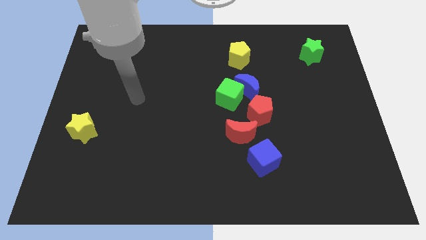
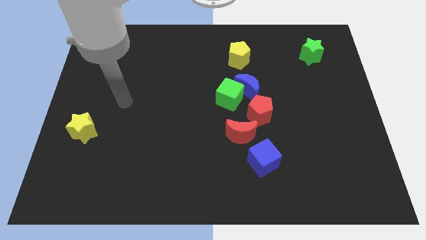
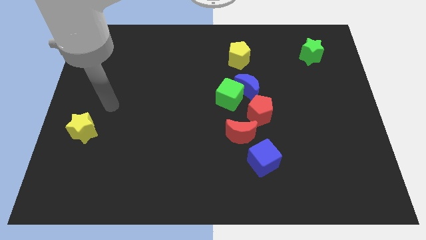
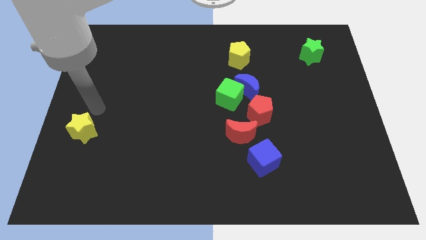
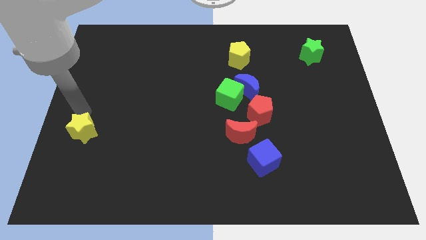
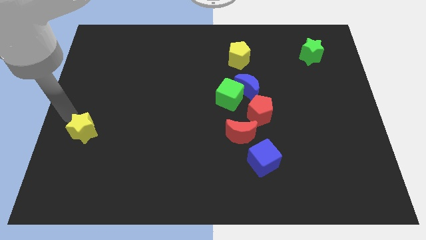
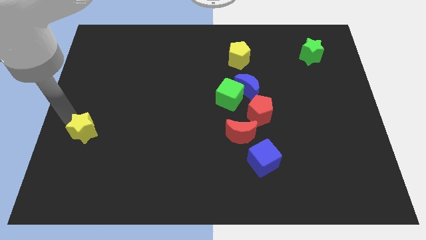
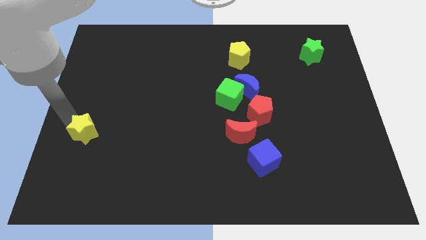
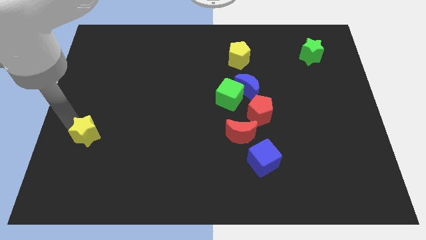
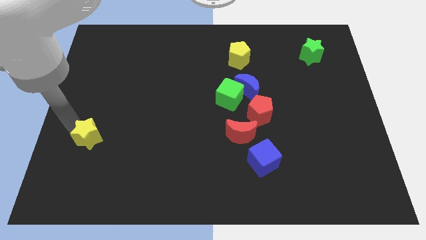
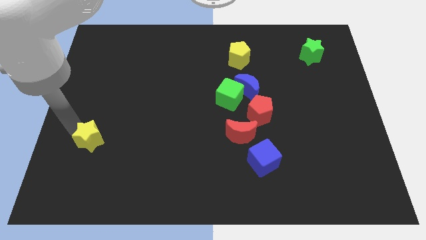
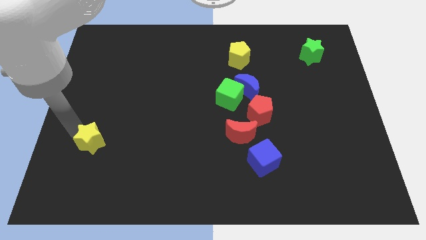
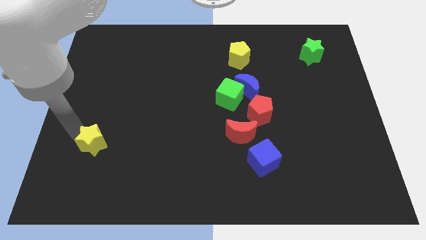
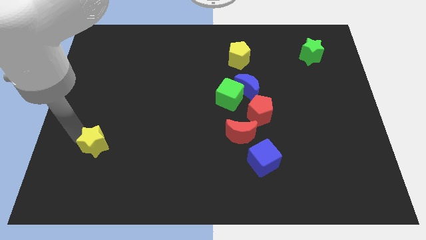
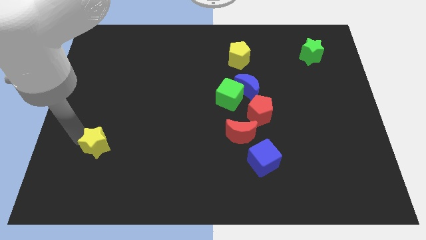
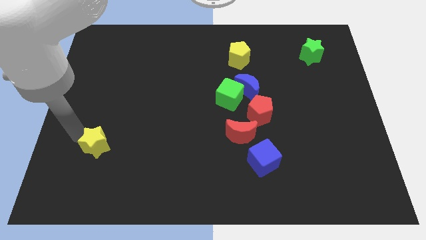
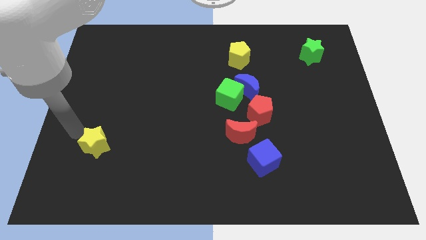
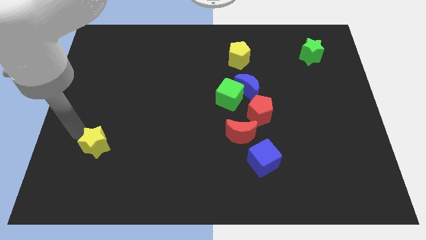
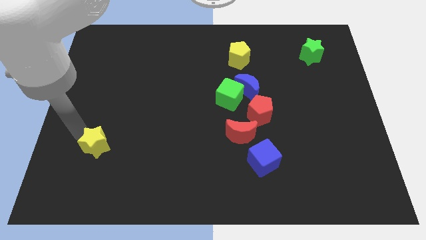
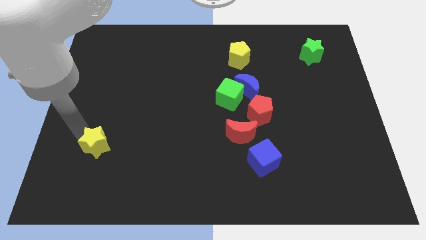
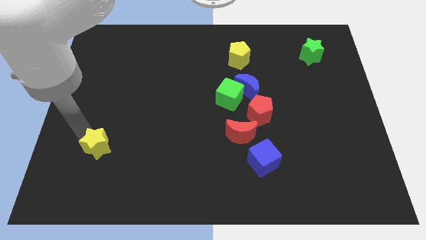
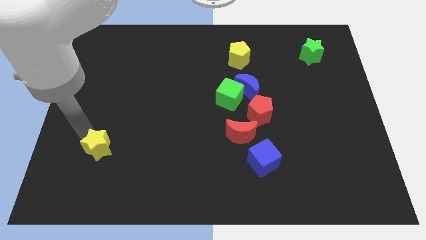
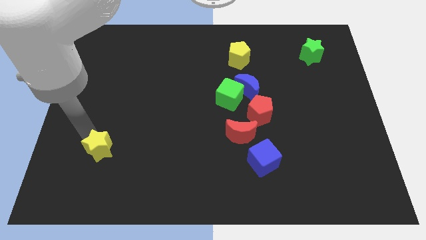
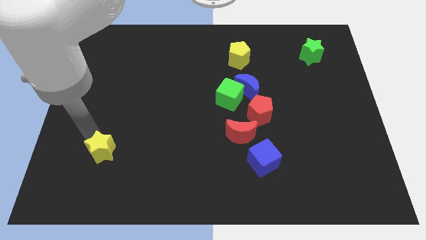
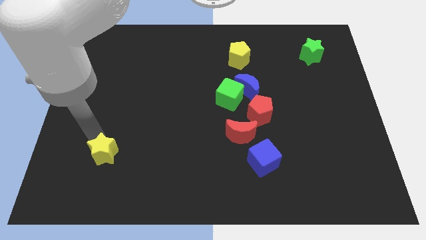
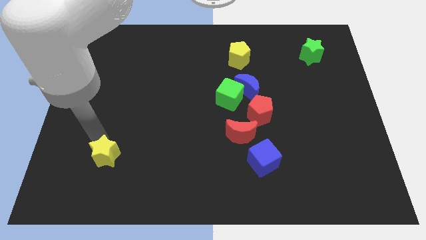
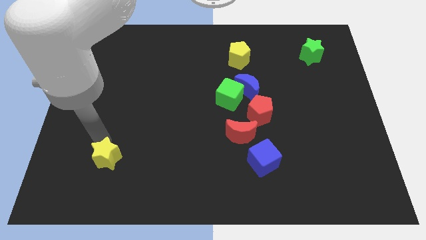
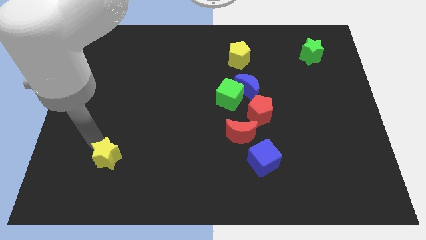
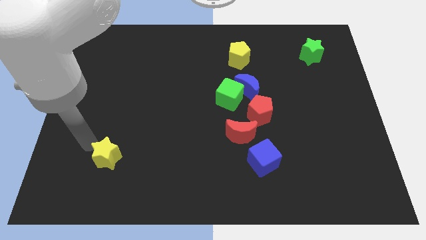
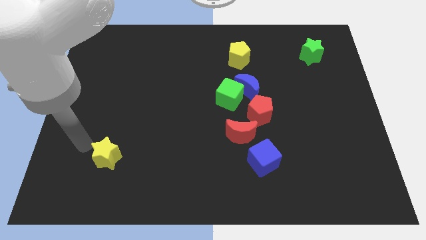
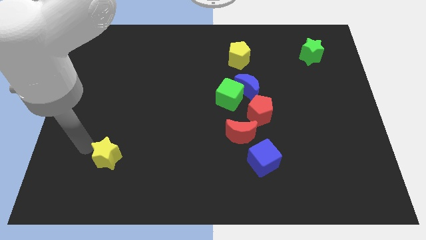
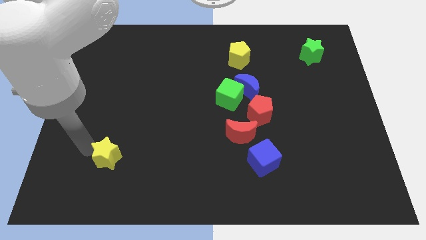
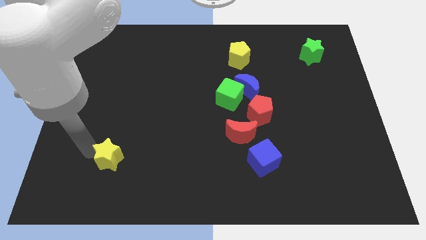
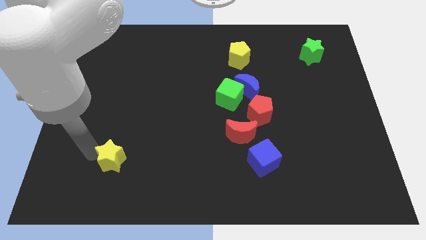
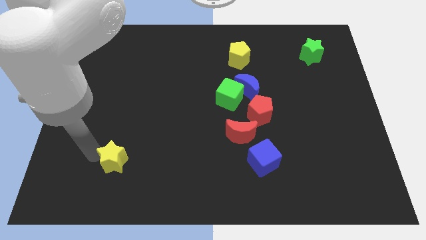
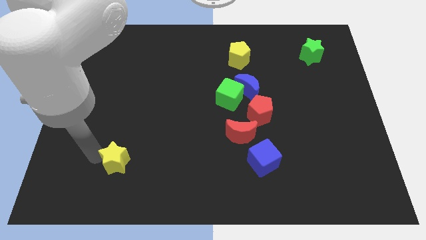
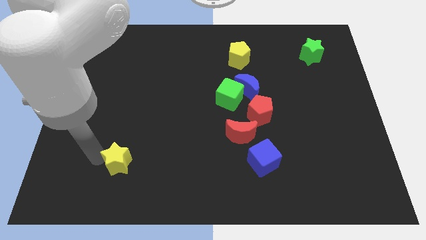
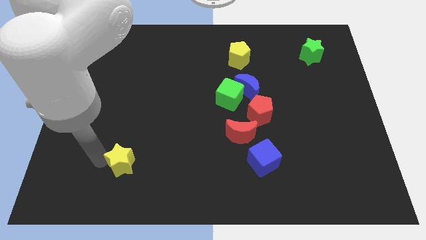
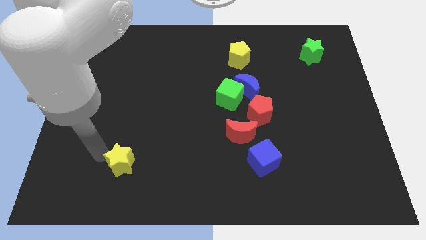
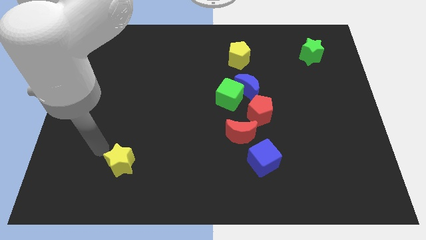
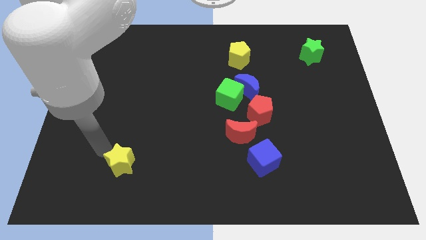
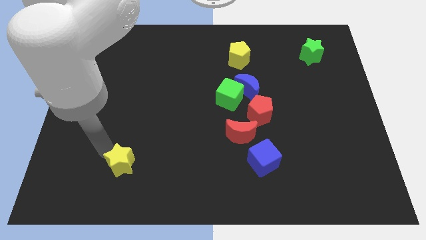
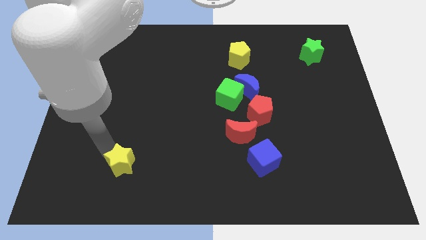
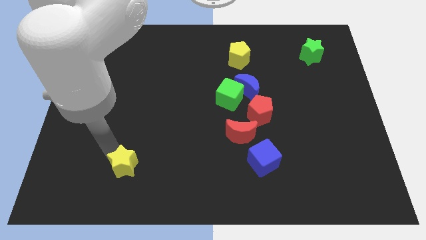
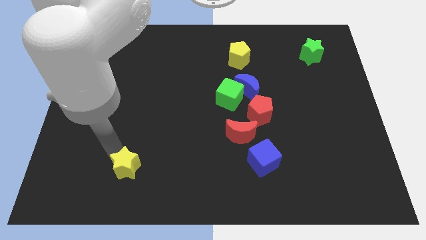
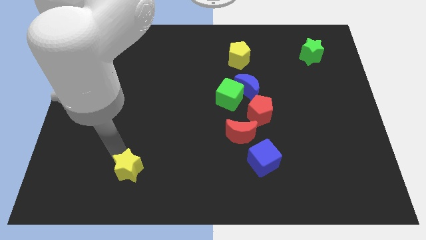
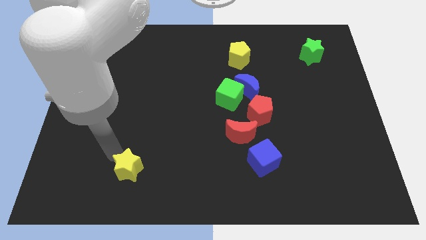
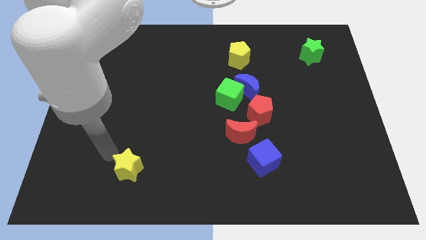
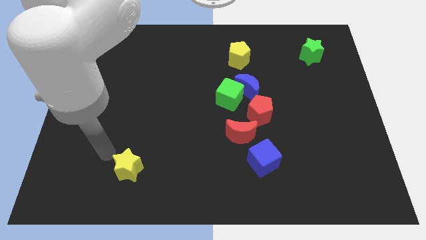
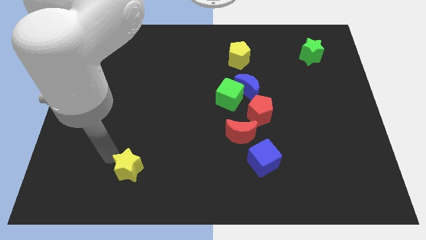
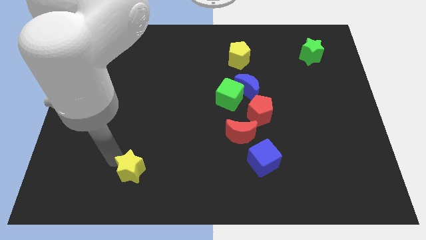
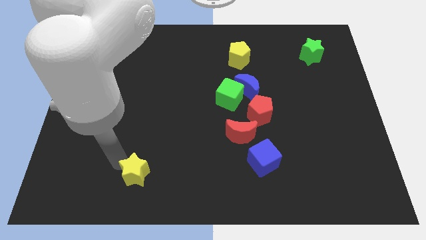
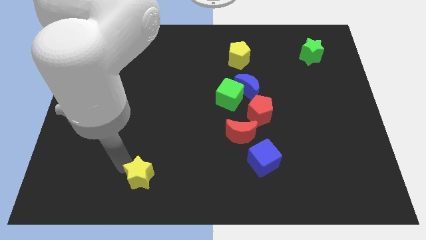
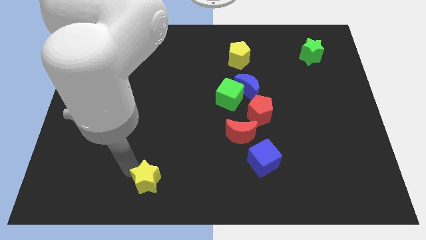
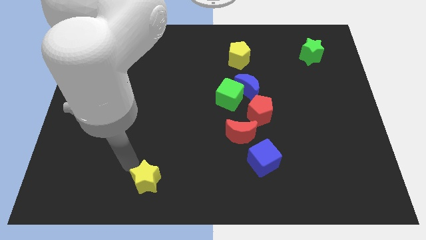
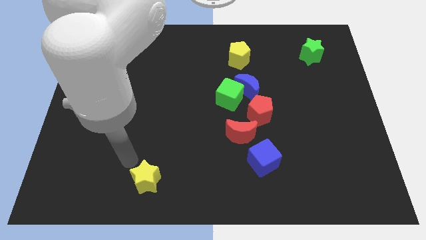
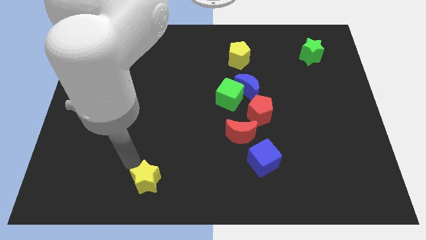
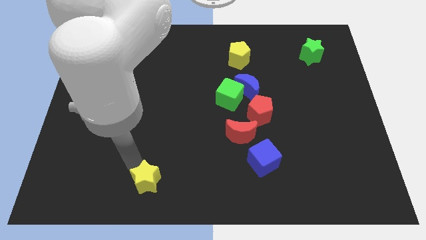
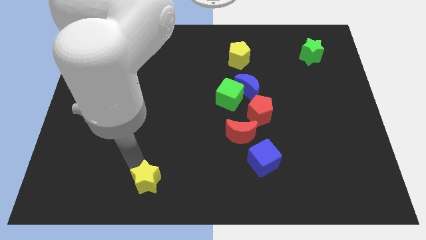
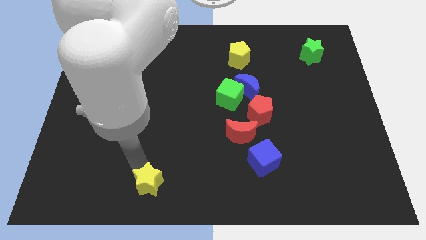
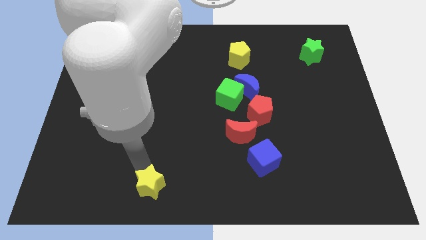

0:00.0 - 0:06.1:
slide the yellow star to the bottom
